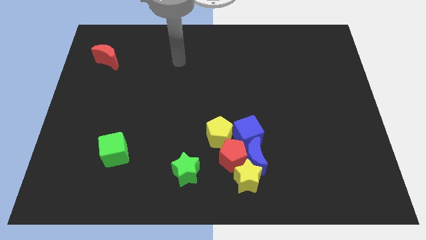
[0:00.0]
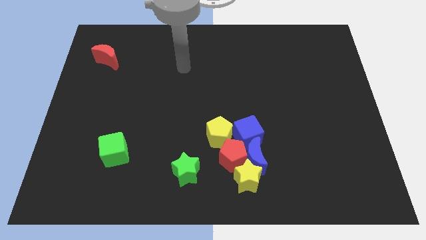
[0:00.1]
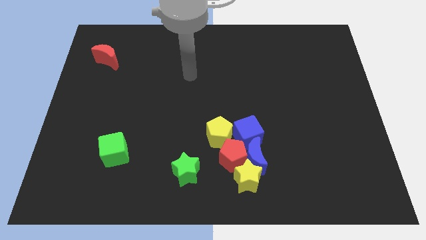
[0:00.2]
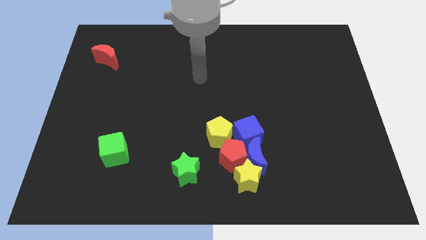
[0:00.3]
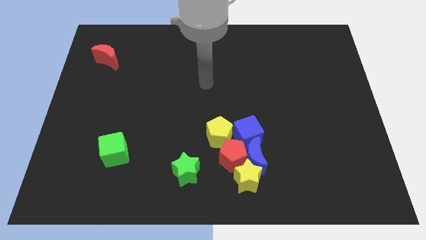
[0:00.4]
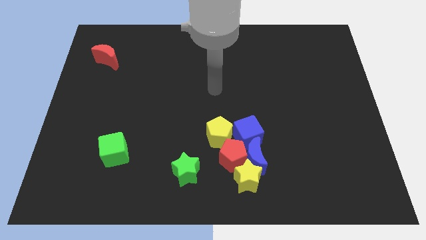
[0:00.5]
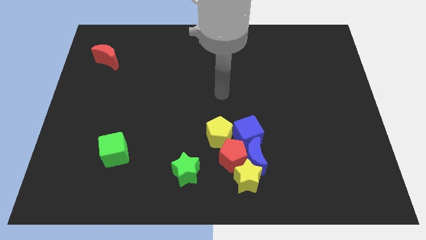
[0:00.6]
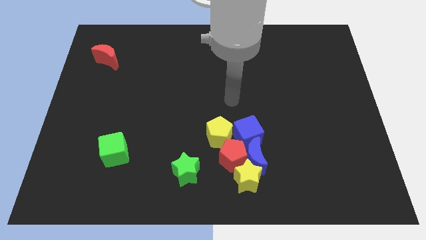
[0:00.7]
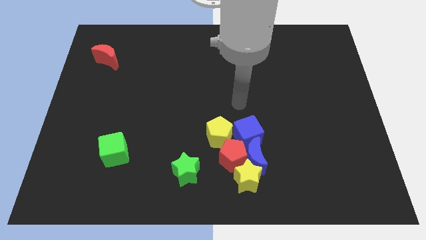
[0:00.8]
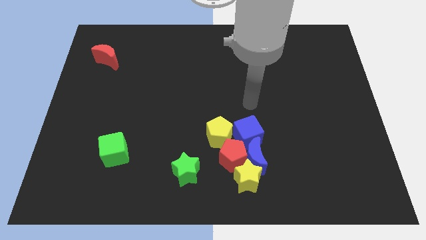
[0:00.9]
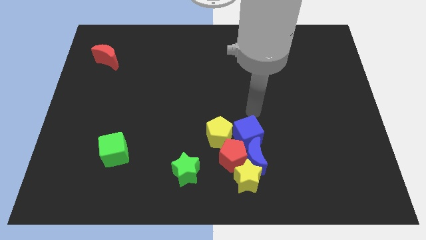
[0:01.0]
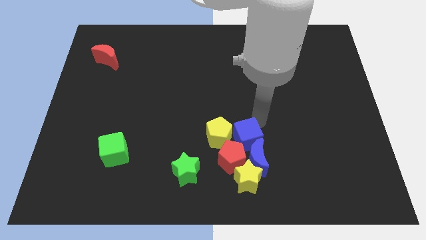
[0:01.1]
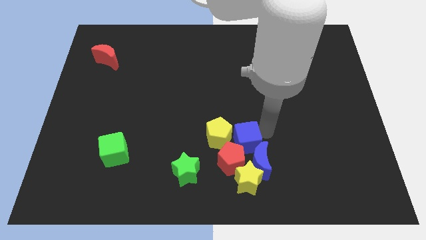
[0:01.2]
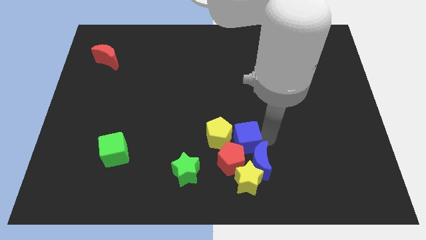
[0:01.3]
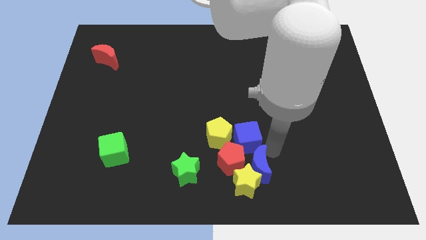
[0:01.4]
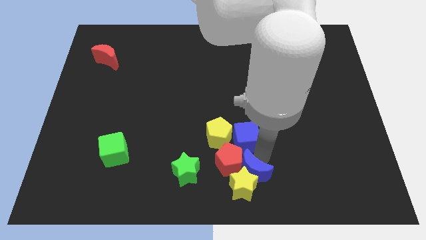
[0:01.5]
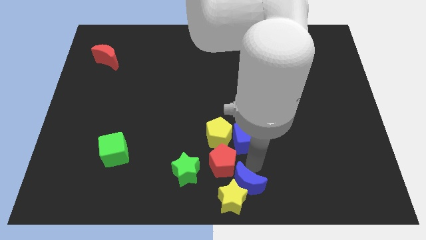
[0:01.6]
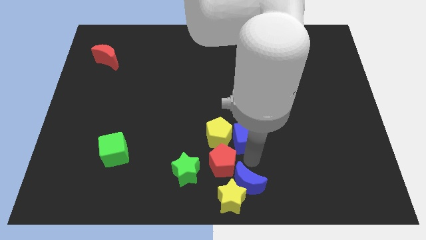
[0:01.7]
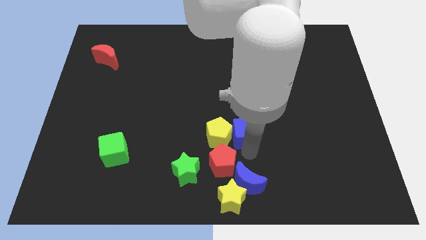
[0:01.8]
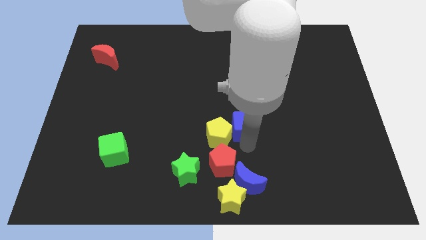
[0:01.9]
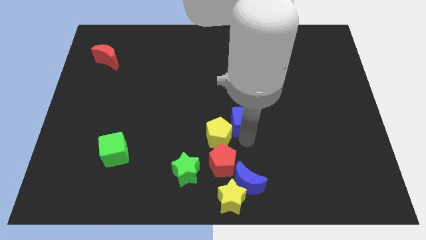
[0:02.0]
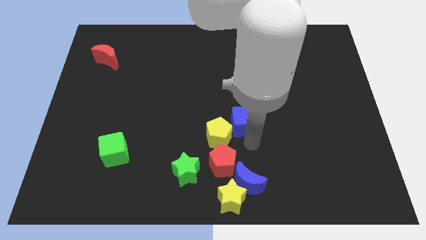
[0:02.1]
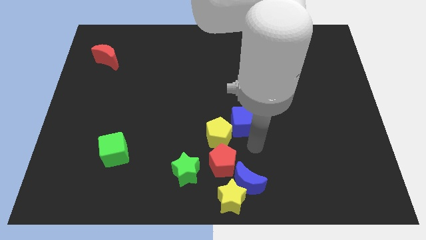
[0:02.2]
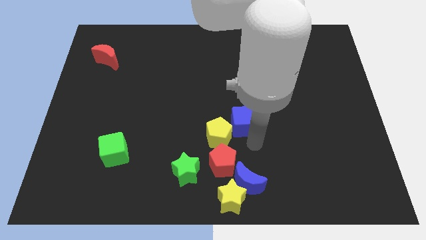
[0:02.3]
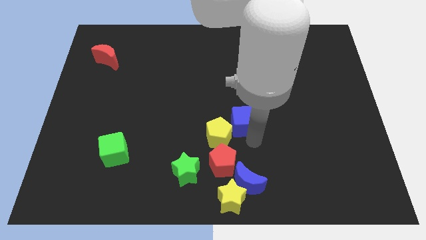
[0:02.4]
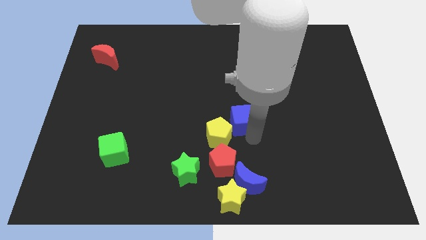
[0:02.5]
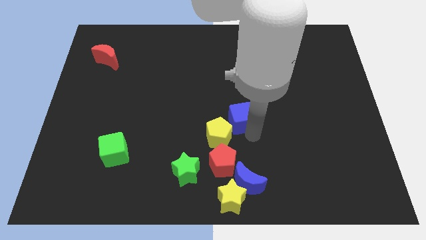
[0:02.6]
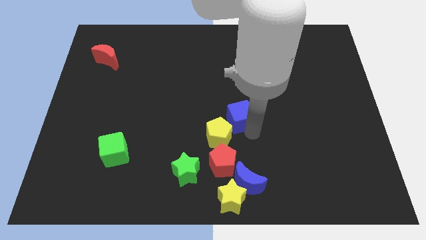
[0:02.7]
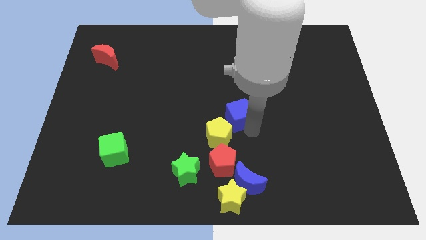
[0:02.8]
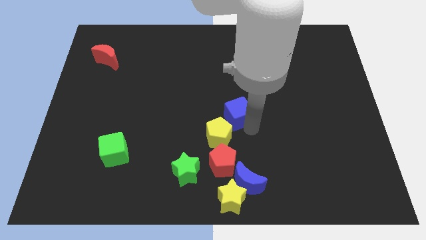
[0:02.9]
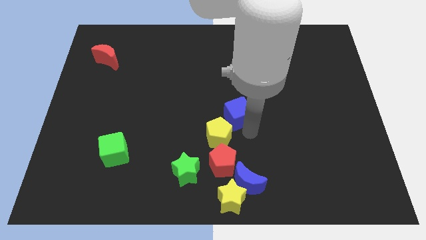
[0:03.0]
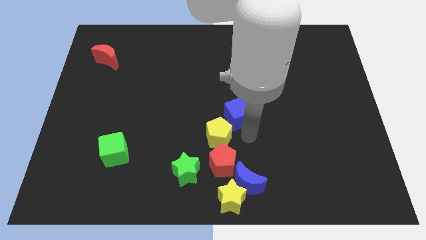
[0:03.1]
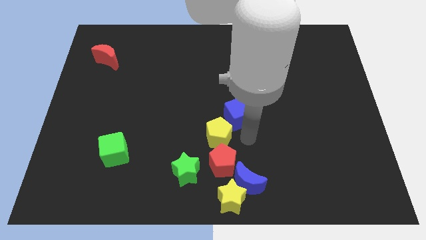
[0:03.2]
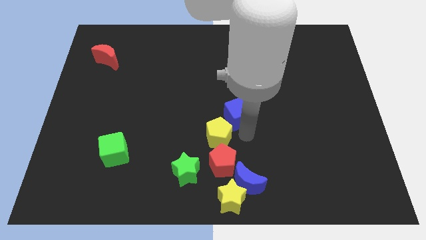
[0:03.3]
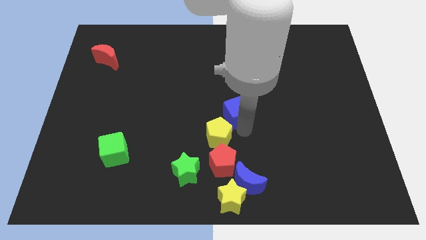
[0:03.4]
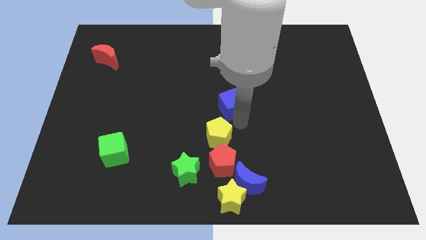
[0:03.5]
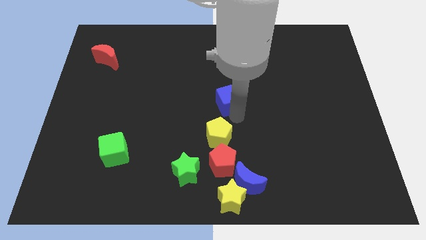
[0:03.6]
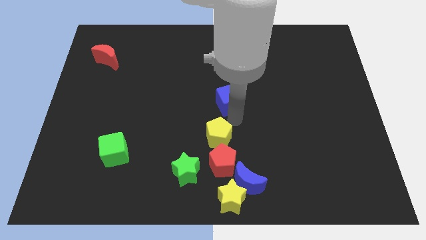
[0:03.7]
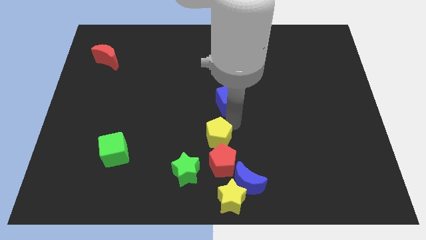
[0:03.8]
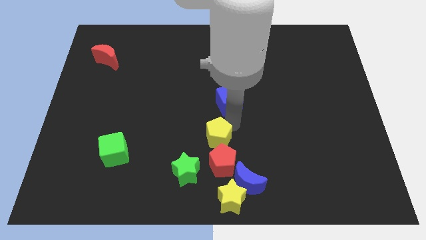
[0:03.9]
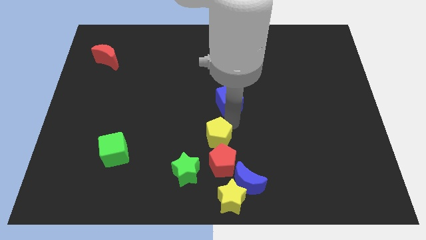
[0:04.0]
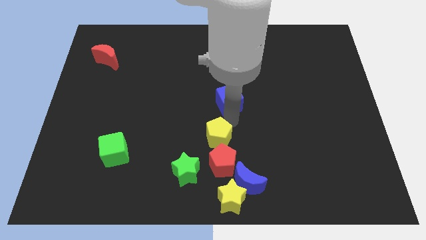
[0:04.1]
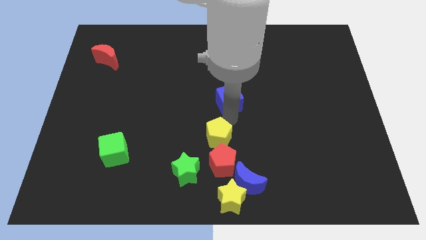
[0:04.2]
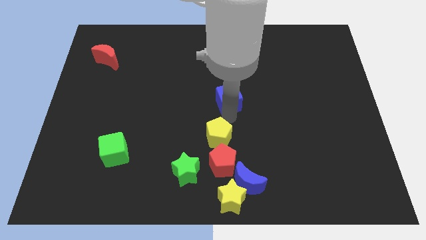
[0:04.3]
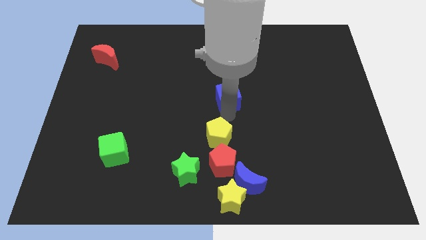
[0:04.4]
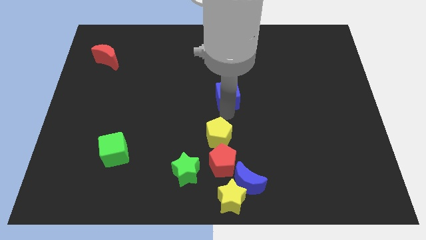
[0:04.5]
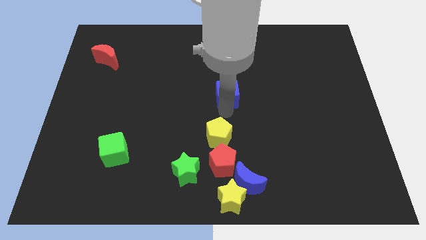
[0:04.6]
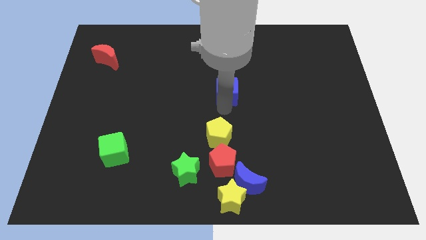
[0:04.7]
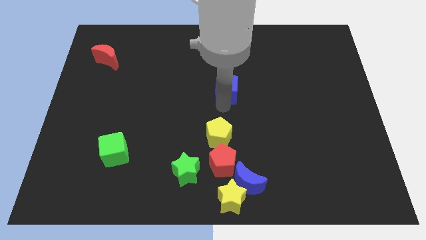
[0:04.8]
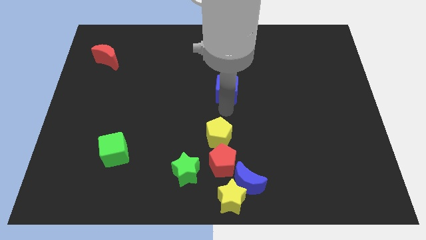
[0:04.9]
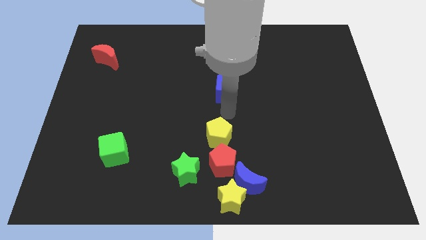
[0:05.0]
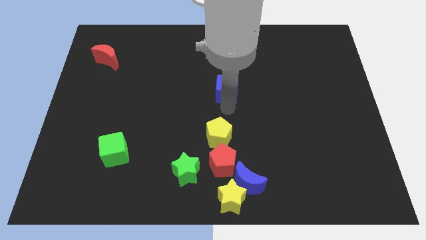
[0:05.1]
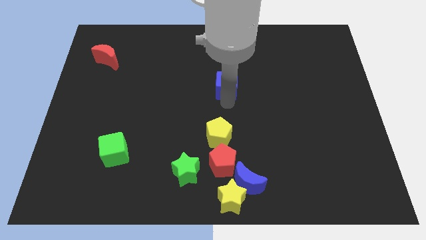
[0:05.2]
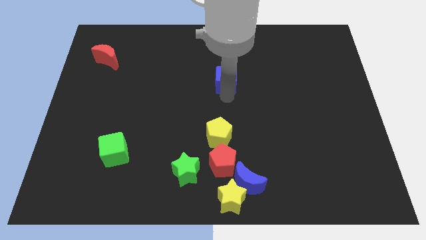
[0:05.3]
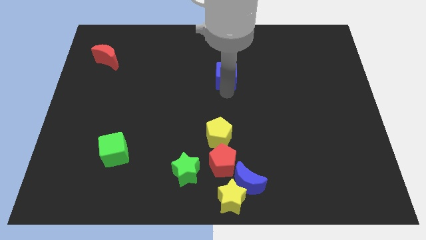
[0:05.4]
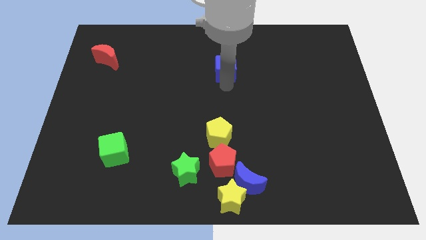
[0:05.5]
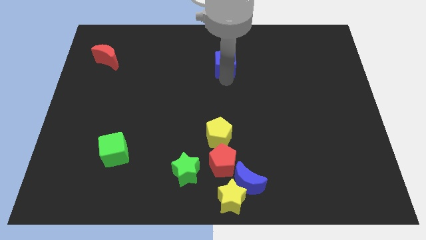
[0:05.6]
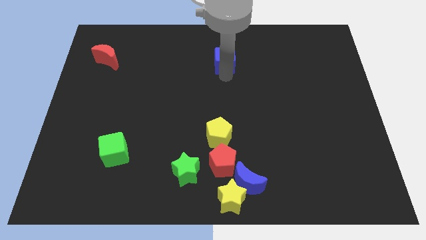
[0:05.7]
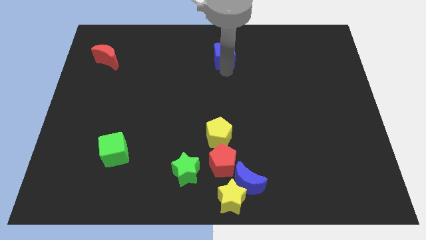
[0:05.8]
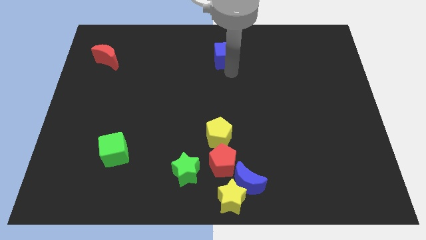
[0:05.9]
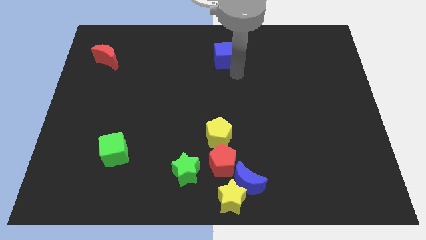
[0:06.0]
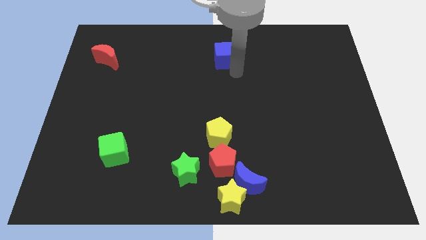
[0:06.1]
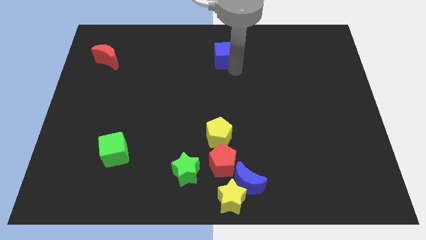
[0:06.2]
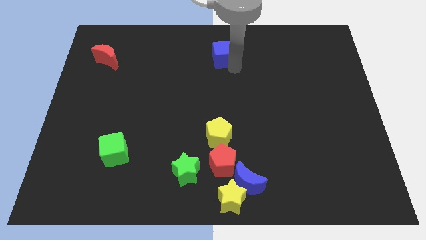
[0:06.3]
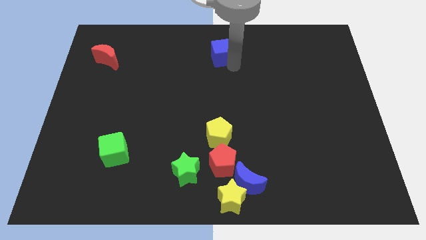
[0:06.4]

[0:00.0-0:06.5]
put the blue cube to the top side

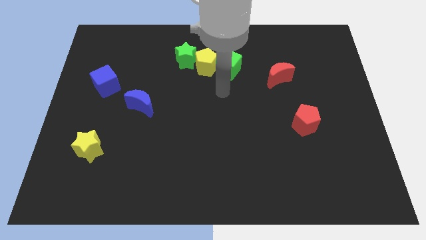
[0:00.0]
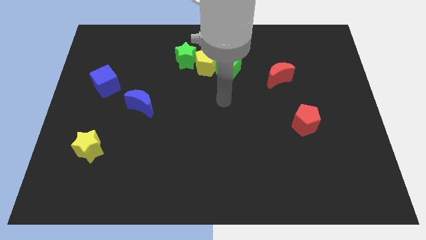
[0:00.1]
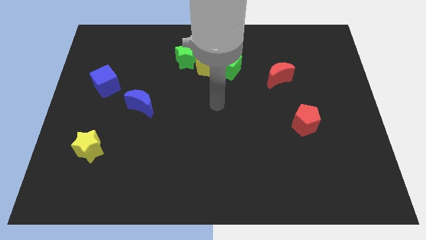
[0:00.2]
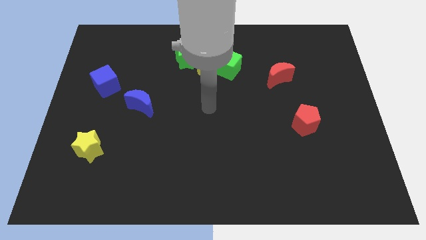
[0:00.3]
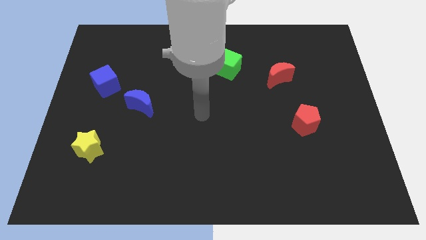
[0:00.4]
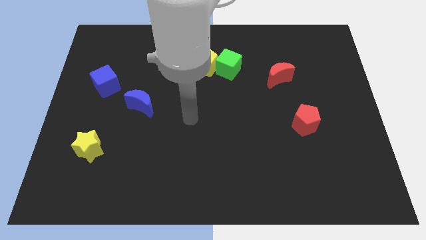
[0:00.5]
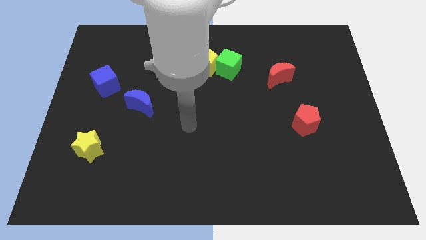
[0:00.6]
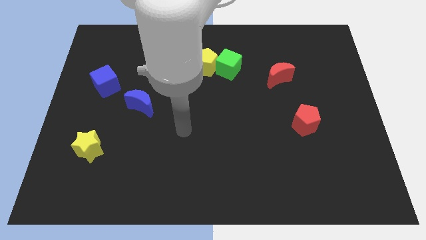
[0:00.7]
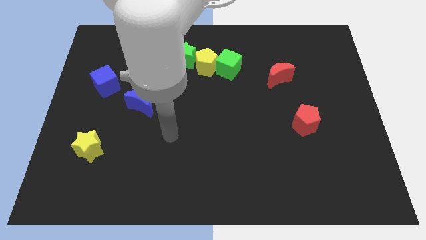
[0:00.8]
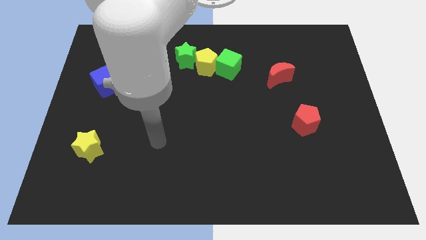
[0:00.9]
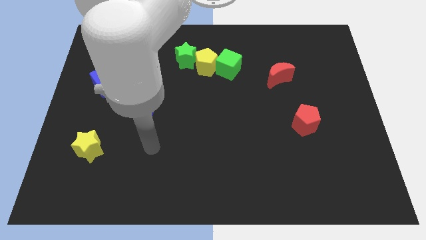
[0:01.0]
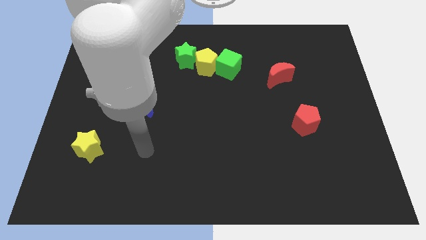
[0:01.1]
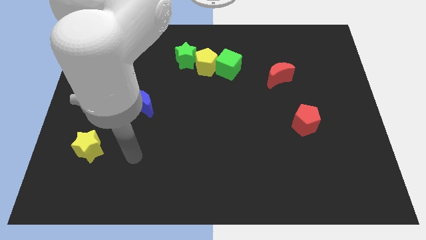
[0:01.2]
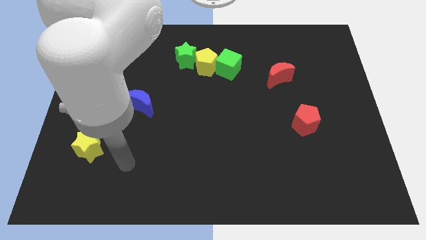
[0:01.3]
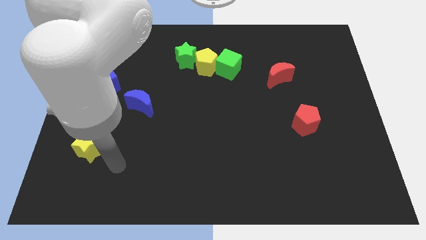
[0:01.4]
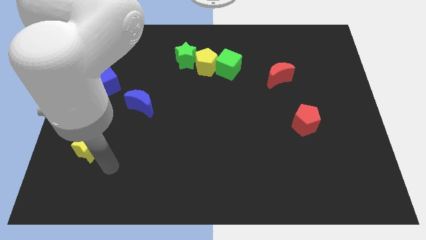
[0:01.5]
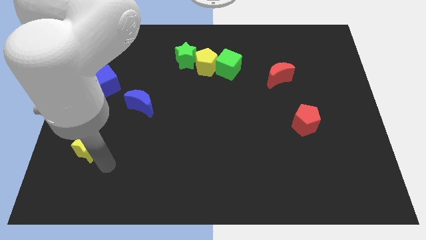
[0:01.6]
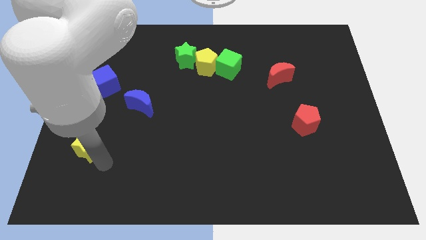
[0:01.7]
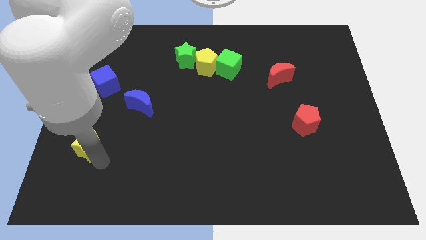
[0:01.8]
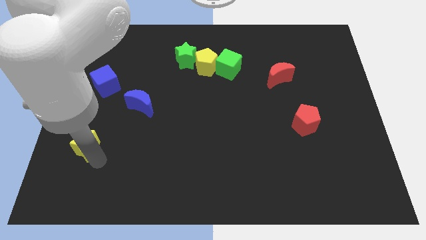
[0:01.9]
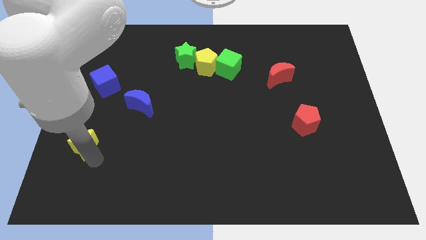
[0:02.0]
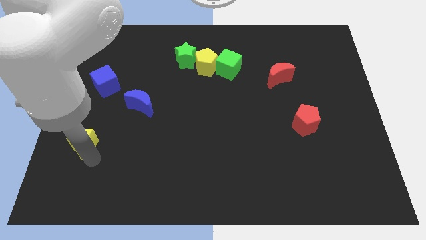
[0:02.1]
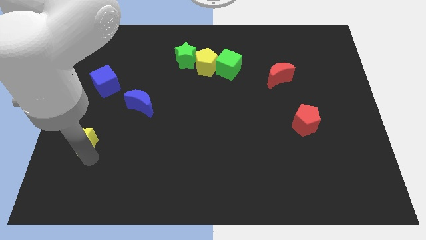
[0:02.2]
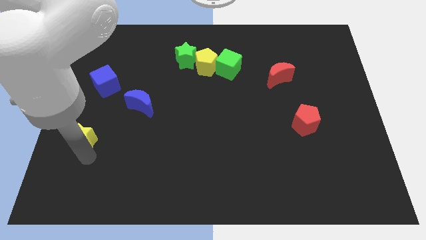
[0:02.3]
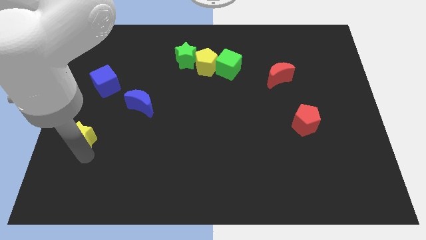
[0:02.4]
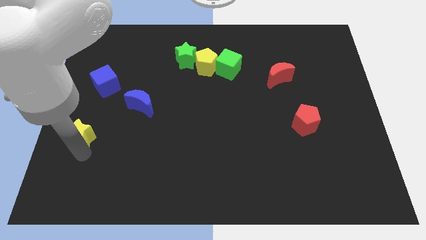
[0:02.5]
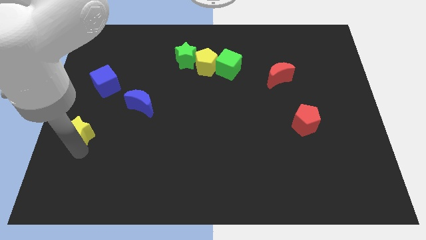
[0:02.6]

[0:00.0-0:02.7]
move the yellow star to the left side of the board
